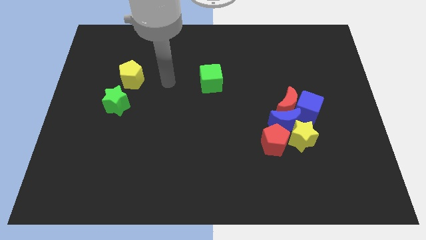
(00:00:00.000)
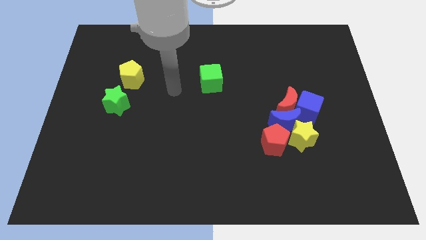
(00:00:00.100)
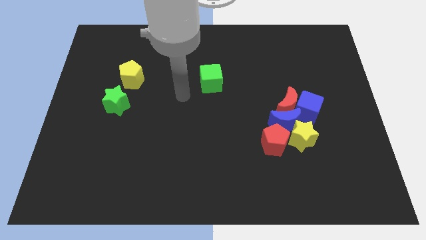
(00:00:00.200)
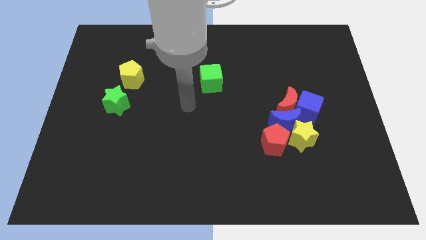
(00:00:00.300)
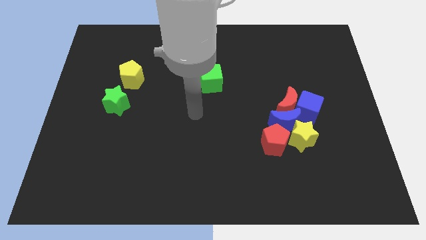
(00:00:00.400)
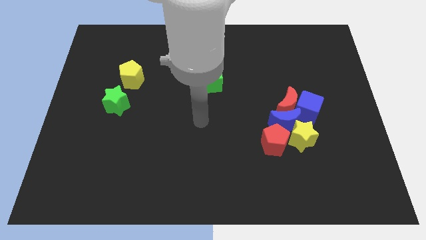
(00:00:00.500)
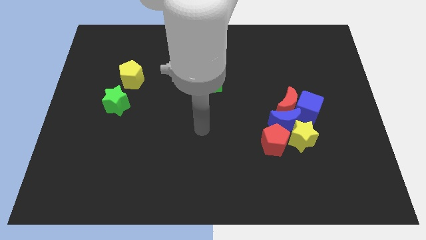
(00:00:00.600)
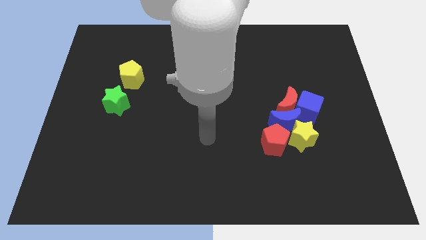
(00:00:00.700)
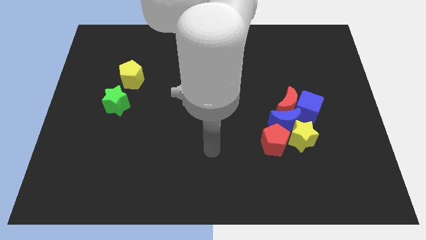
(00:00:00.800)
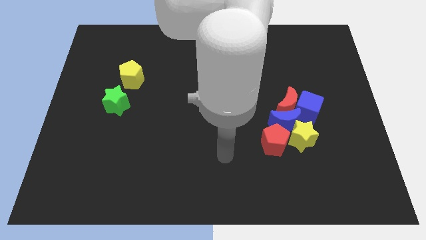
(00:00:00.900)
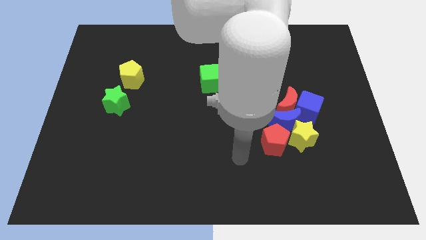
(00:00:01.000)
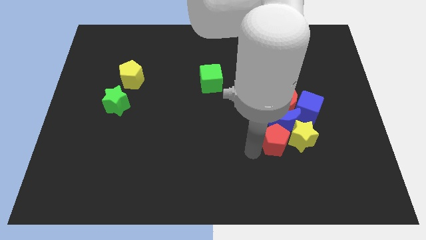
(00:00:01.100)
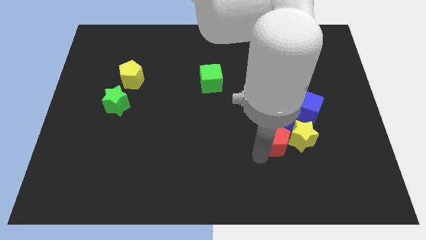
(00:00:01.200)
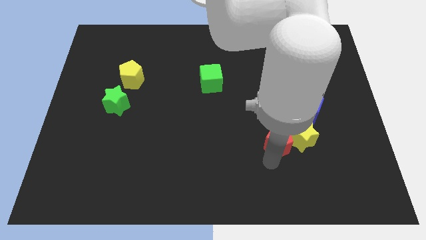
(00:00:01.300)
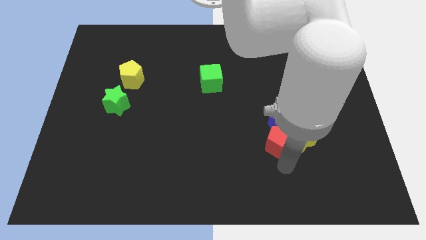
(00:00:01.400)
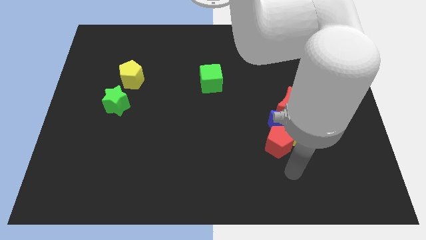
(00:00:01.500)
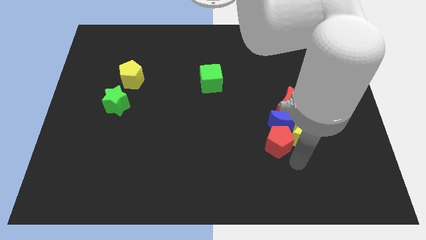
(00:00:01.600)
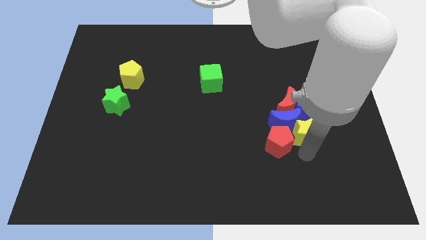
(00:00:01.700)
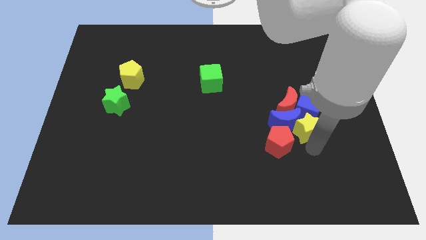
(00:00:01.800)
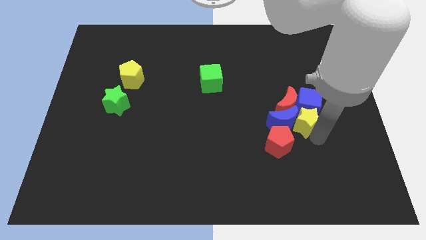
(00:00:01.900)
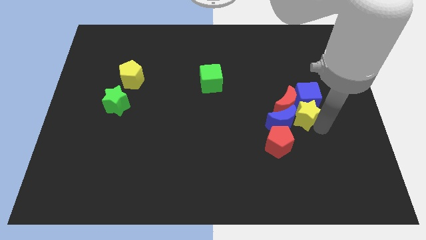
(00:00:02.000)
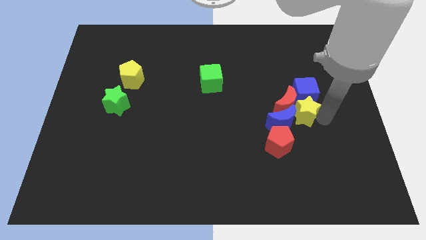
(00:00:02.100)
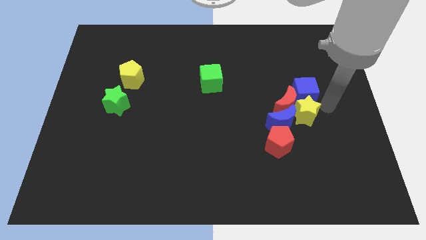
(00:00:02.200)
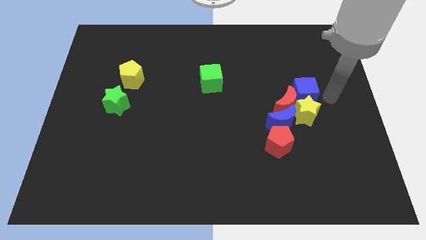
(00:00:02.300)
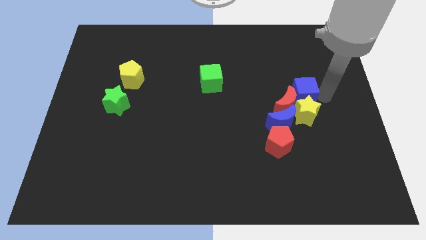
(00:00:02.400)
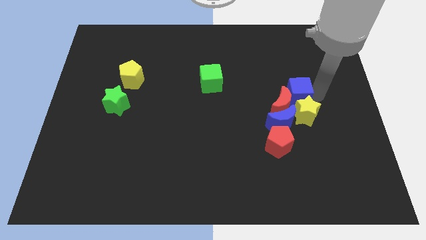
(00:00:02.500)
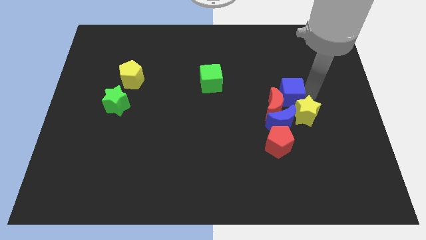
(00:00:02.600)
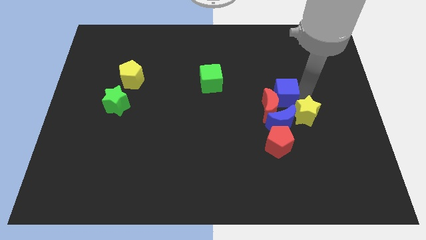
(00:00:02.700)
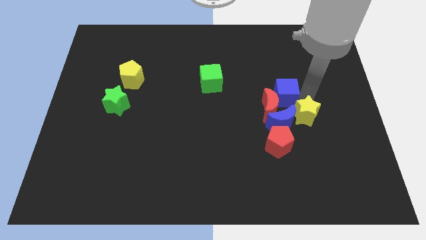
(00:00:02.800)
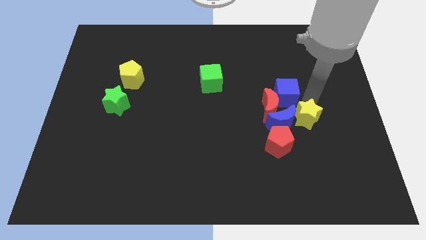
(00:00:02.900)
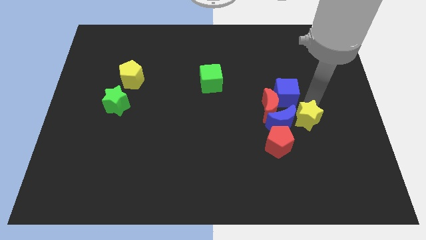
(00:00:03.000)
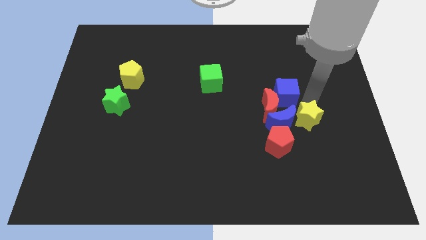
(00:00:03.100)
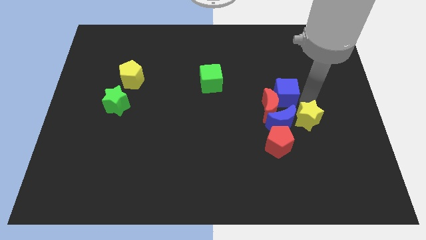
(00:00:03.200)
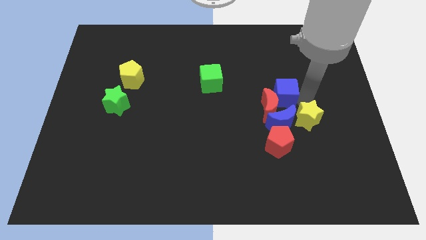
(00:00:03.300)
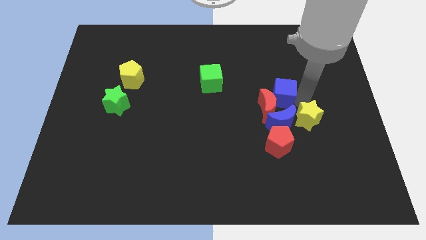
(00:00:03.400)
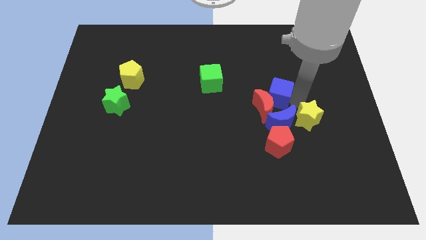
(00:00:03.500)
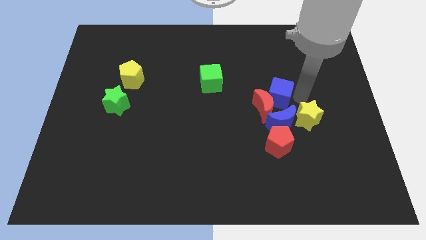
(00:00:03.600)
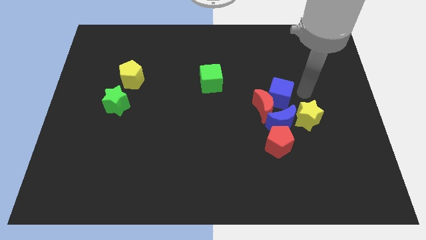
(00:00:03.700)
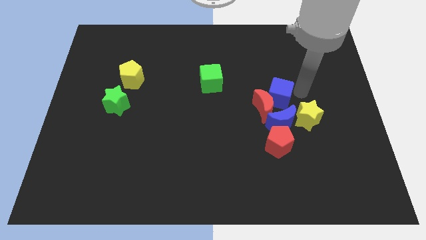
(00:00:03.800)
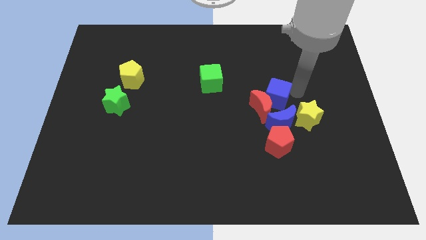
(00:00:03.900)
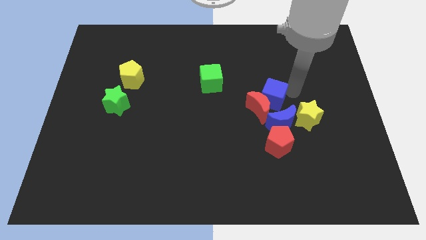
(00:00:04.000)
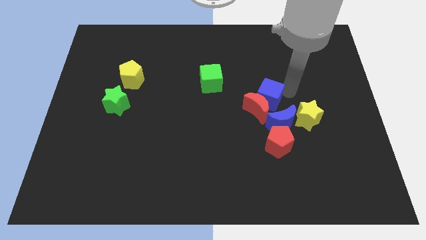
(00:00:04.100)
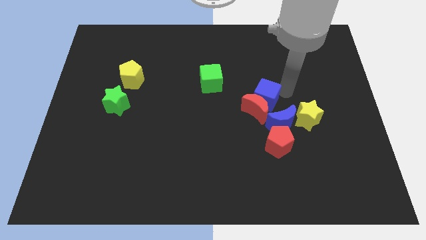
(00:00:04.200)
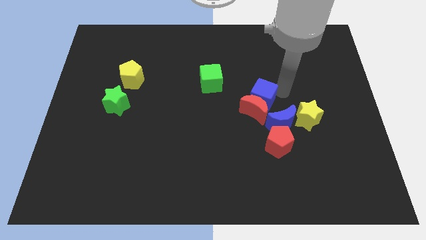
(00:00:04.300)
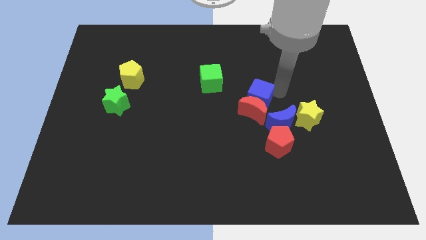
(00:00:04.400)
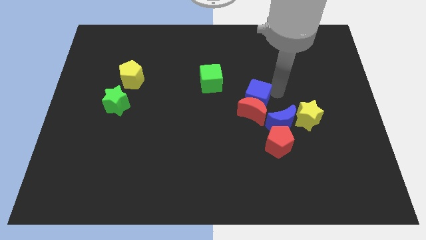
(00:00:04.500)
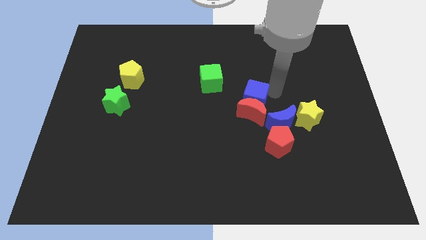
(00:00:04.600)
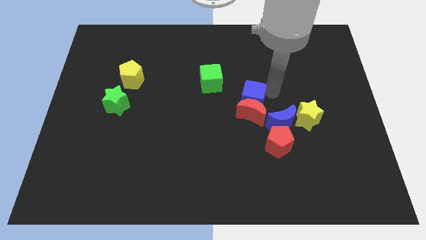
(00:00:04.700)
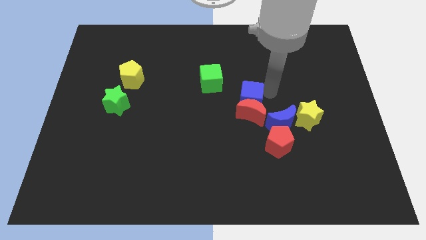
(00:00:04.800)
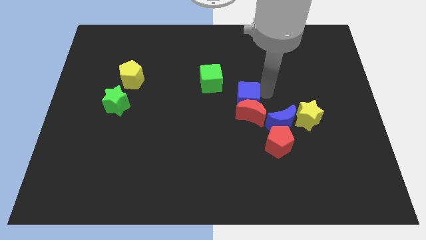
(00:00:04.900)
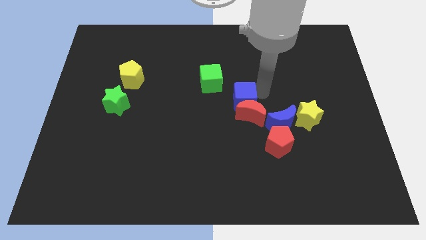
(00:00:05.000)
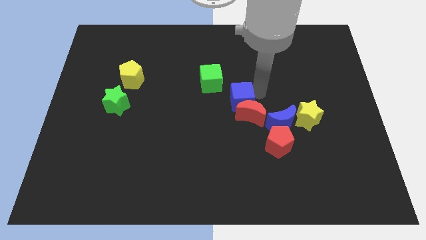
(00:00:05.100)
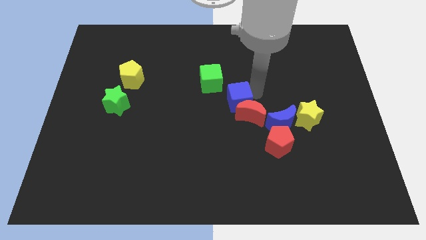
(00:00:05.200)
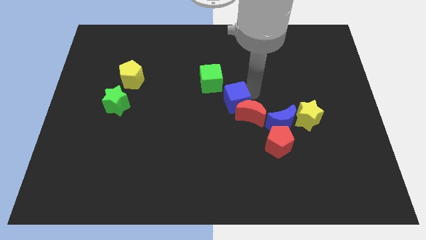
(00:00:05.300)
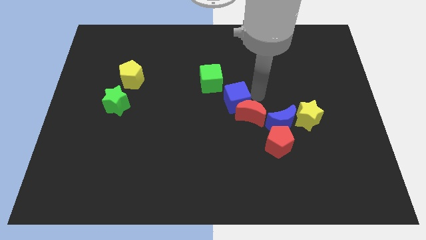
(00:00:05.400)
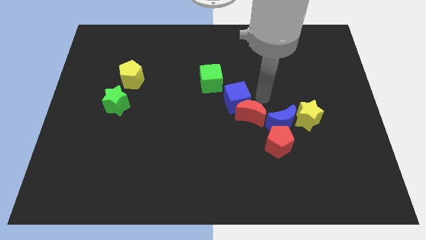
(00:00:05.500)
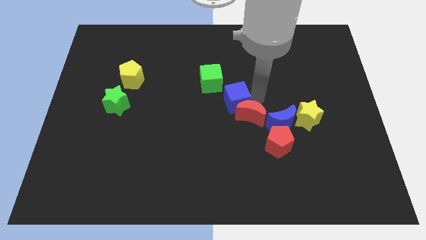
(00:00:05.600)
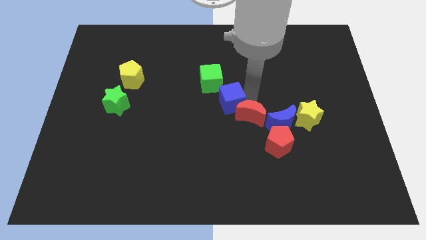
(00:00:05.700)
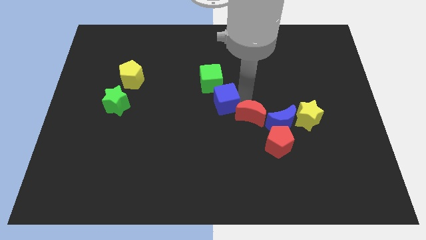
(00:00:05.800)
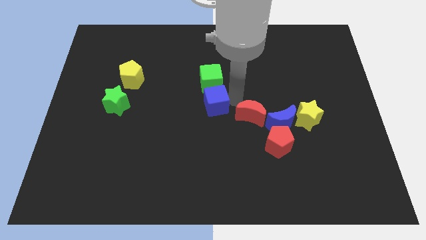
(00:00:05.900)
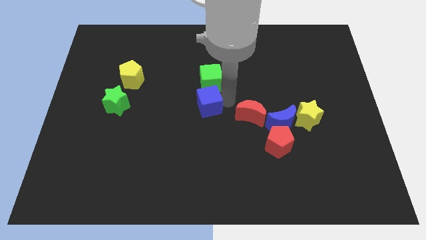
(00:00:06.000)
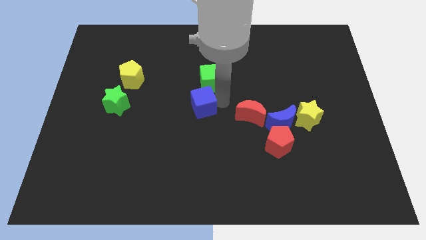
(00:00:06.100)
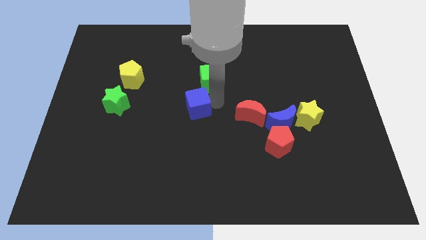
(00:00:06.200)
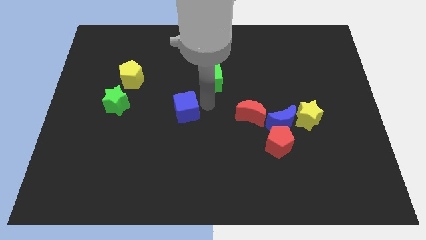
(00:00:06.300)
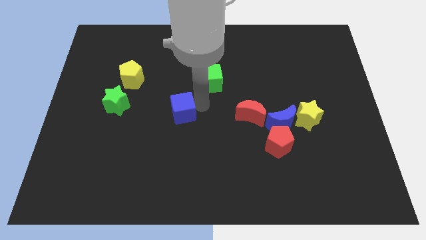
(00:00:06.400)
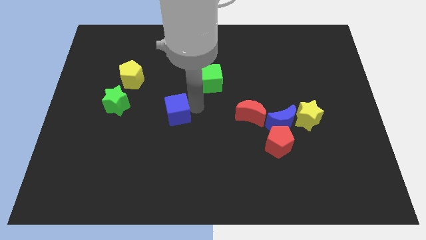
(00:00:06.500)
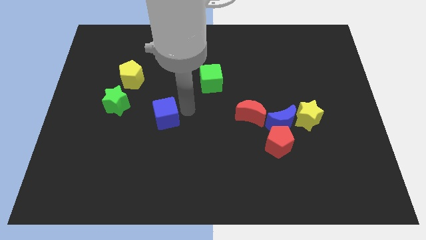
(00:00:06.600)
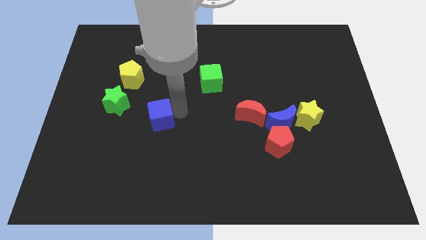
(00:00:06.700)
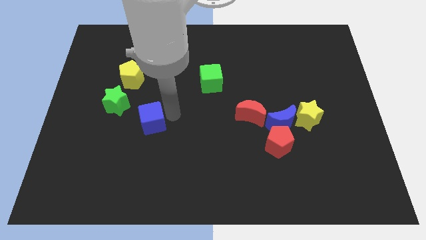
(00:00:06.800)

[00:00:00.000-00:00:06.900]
move the blue cube to the bottom right side of the green star

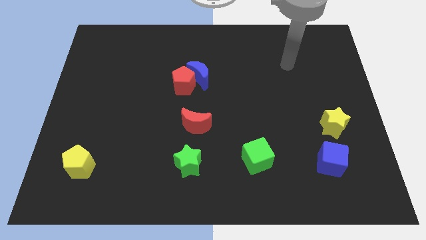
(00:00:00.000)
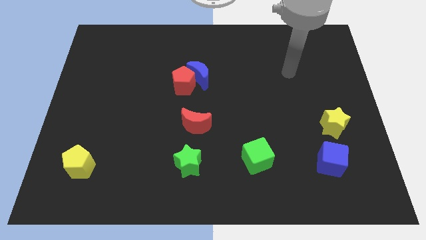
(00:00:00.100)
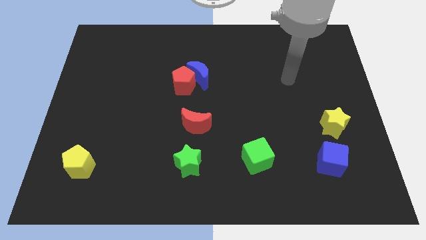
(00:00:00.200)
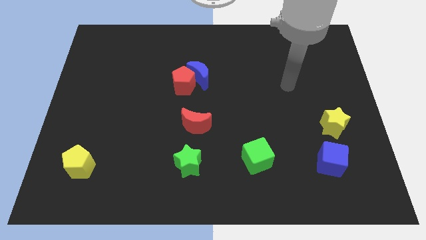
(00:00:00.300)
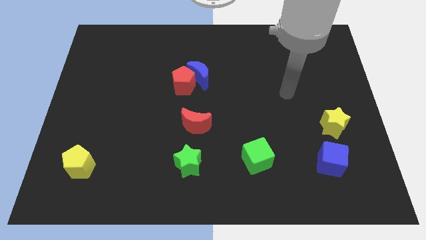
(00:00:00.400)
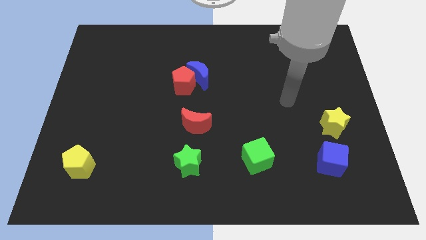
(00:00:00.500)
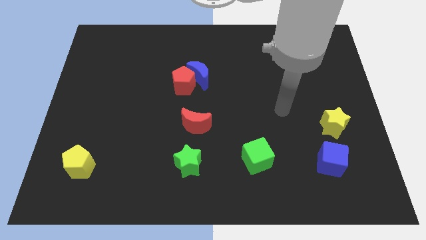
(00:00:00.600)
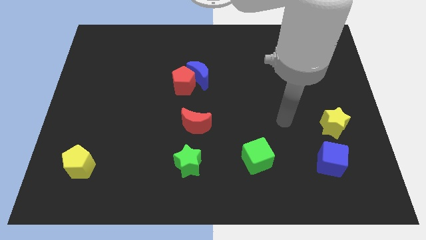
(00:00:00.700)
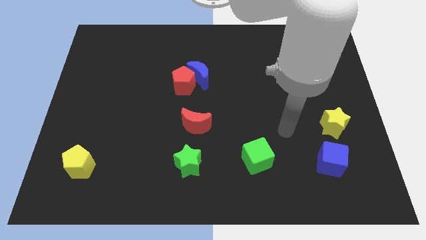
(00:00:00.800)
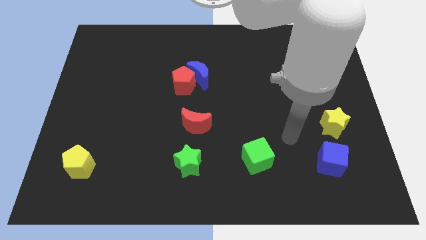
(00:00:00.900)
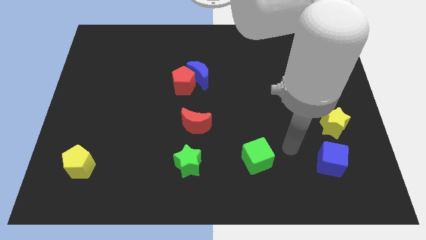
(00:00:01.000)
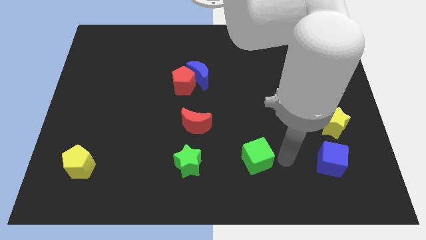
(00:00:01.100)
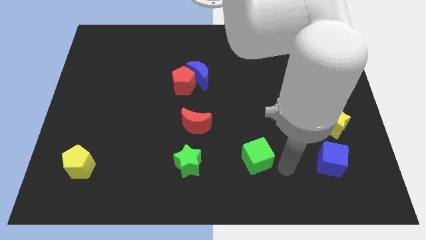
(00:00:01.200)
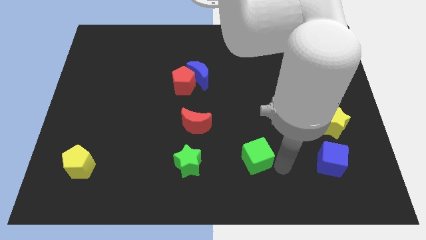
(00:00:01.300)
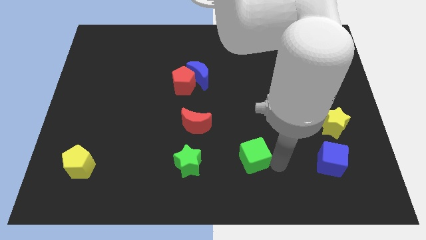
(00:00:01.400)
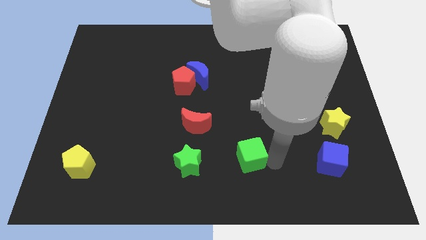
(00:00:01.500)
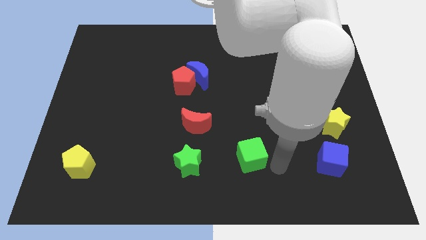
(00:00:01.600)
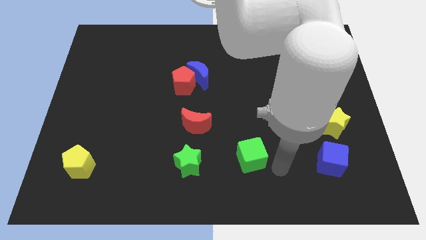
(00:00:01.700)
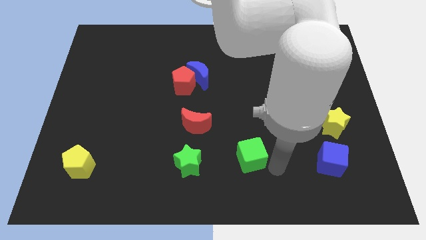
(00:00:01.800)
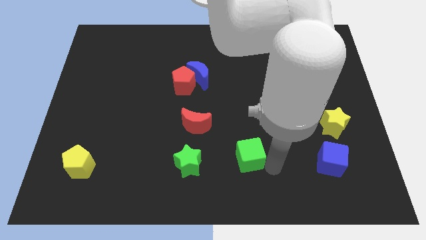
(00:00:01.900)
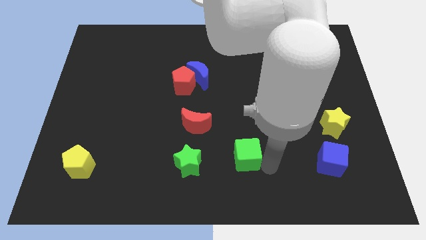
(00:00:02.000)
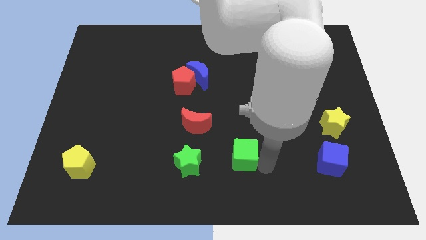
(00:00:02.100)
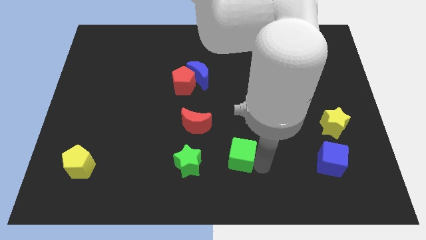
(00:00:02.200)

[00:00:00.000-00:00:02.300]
move the green cube to the bottom right side of the red moon
